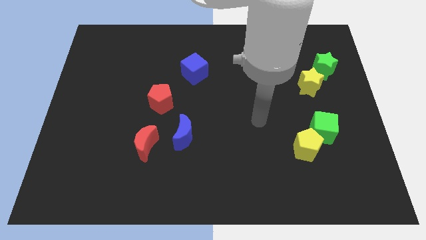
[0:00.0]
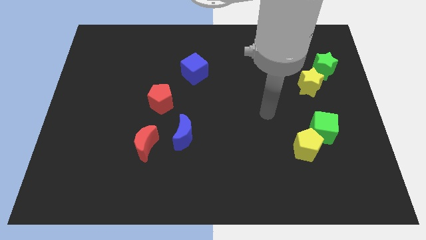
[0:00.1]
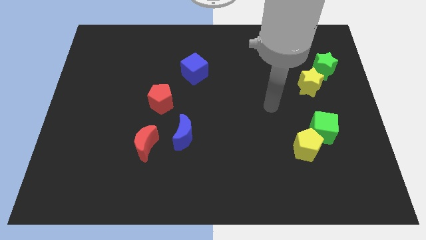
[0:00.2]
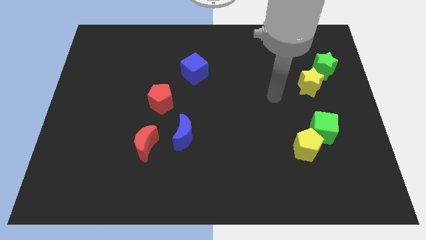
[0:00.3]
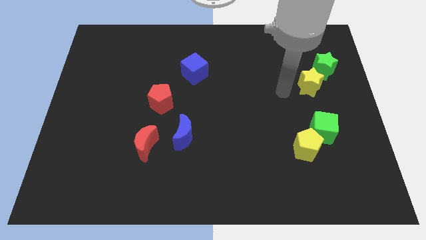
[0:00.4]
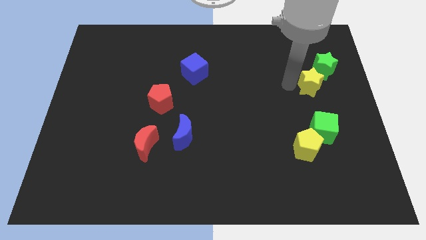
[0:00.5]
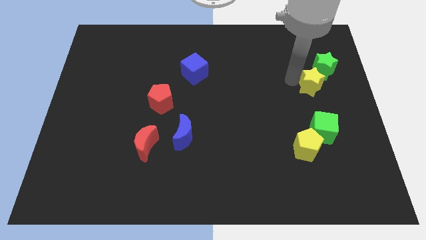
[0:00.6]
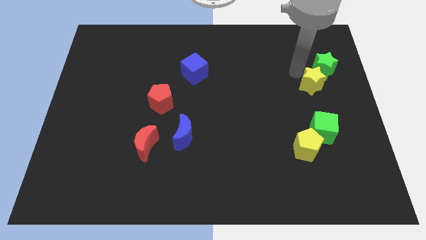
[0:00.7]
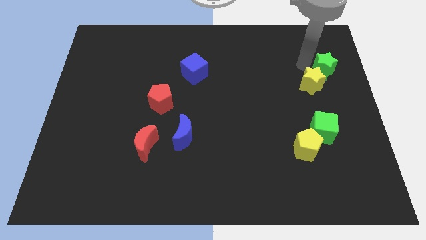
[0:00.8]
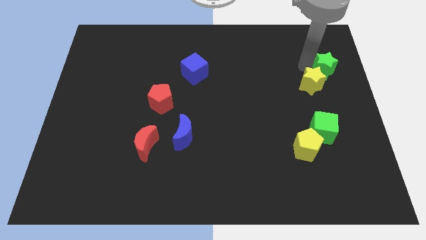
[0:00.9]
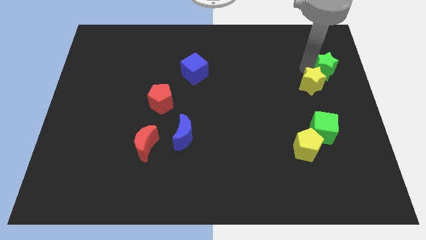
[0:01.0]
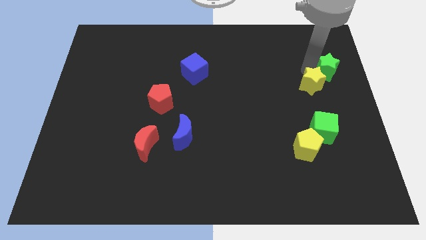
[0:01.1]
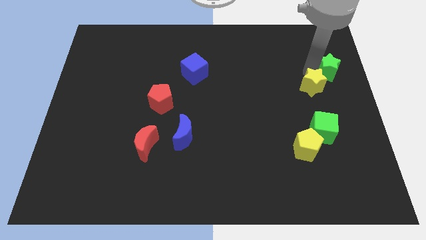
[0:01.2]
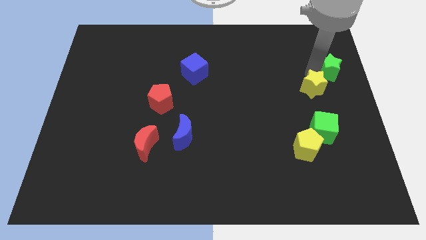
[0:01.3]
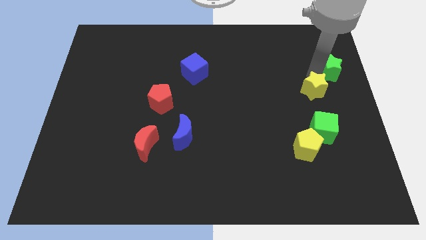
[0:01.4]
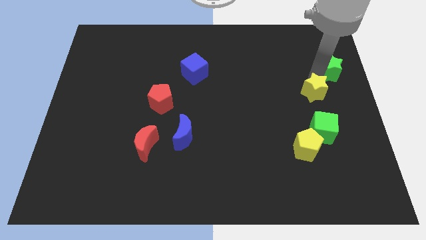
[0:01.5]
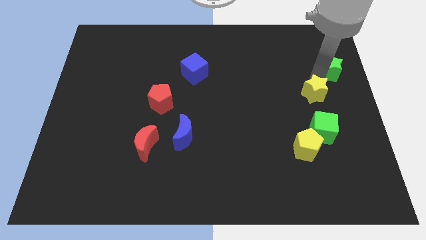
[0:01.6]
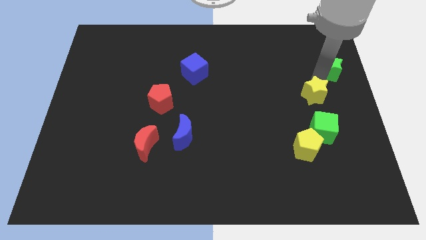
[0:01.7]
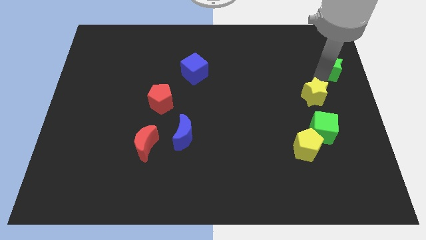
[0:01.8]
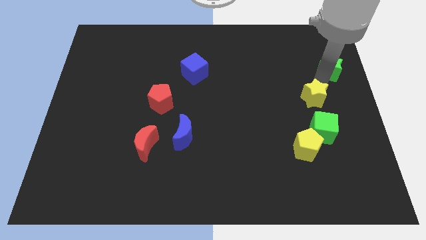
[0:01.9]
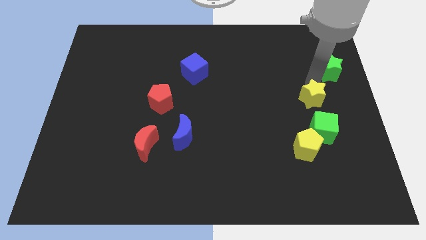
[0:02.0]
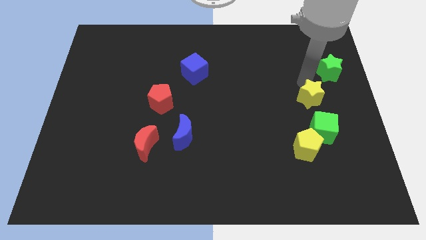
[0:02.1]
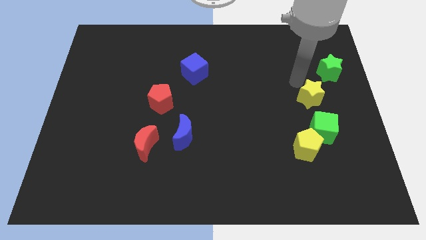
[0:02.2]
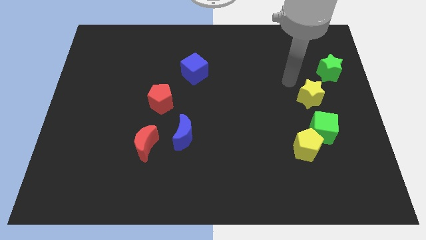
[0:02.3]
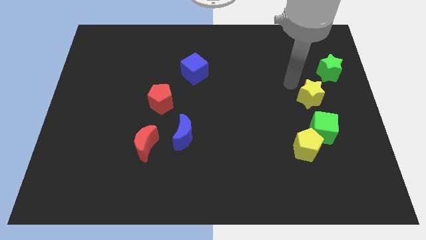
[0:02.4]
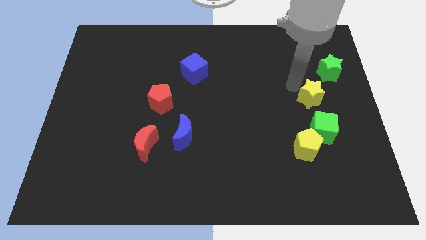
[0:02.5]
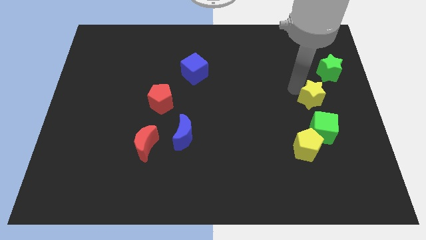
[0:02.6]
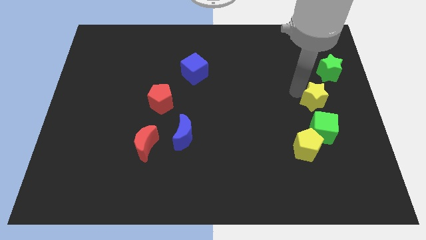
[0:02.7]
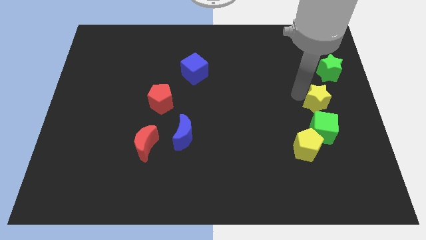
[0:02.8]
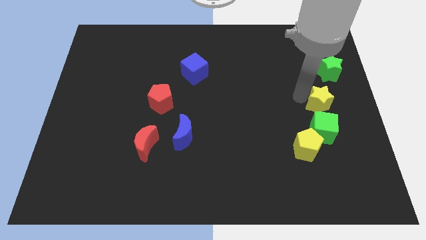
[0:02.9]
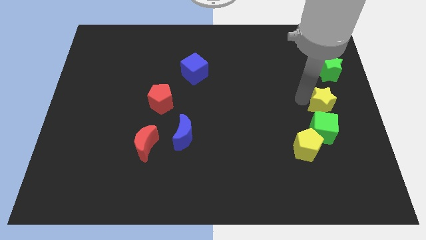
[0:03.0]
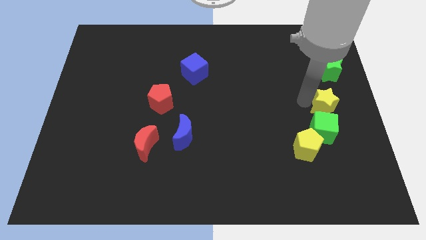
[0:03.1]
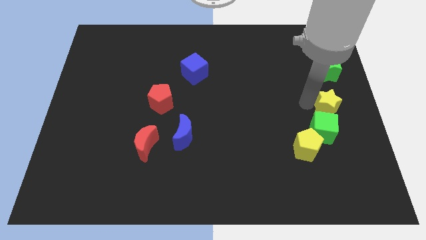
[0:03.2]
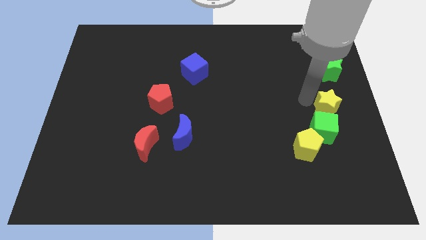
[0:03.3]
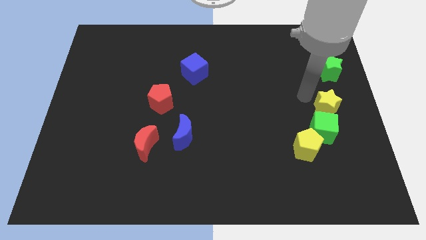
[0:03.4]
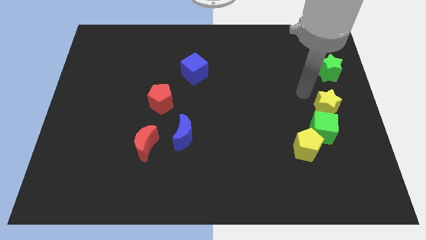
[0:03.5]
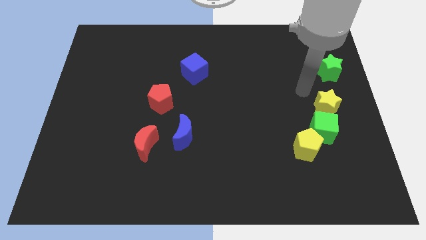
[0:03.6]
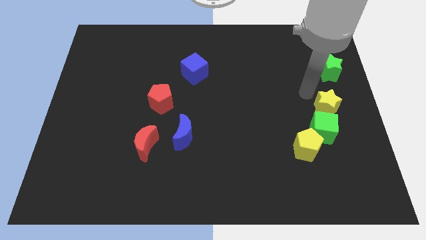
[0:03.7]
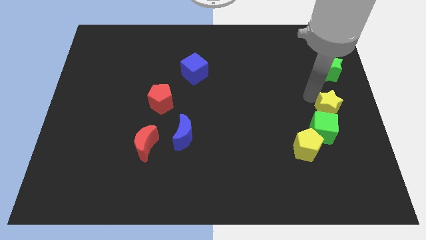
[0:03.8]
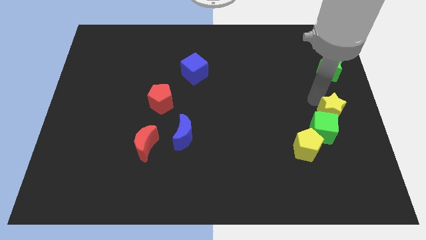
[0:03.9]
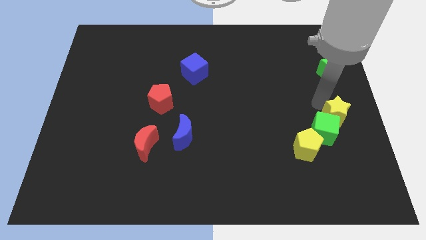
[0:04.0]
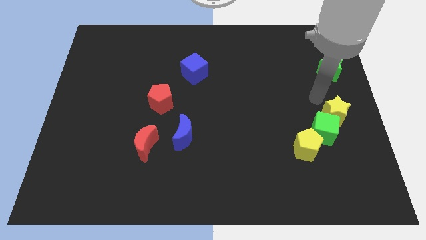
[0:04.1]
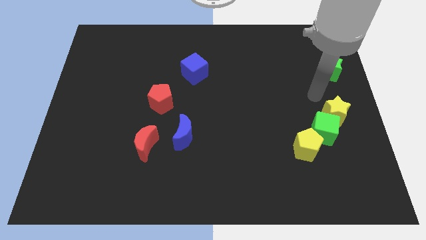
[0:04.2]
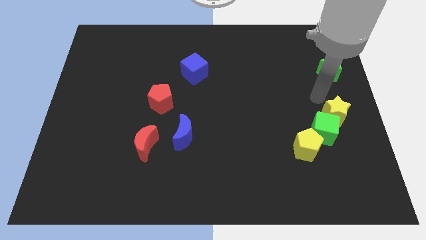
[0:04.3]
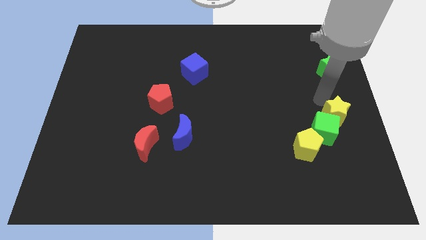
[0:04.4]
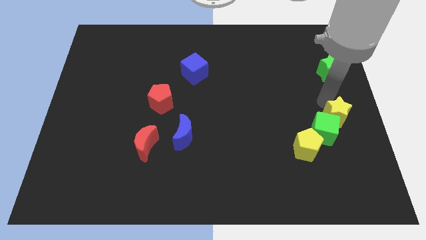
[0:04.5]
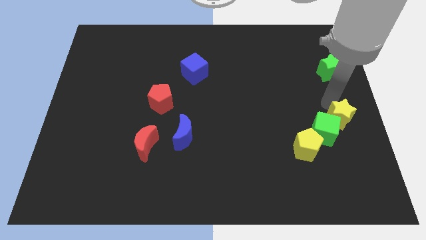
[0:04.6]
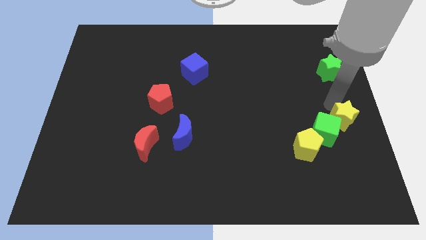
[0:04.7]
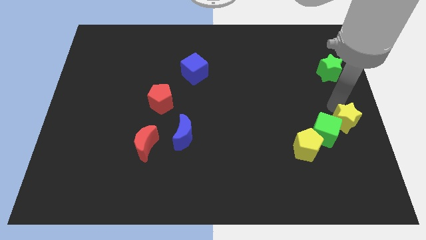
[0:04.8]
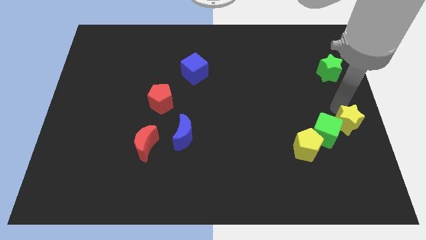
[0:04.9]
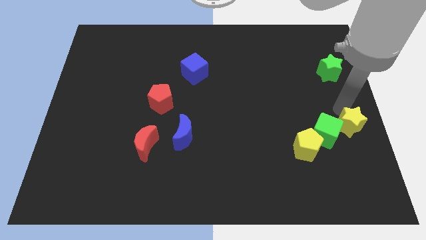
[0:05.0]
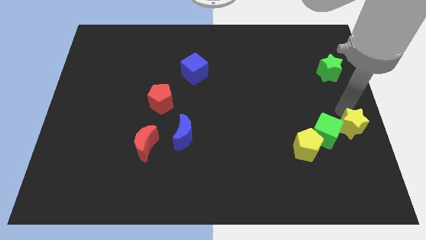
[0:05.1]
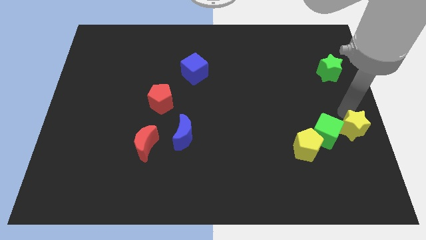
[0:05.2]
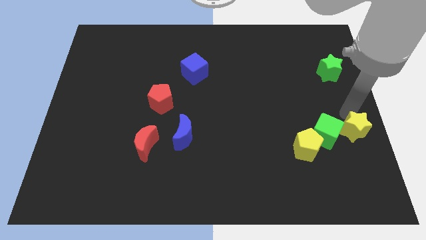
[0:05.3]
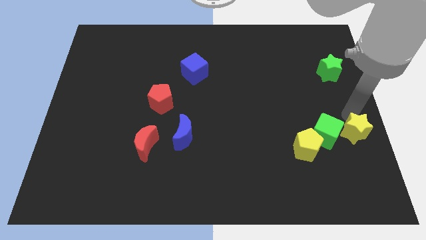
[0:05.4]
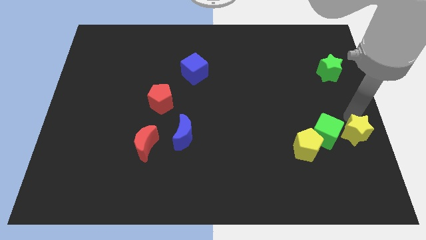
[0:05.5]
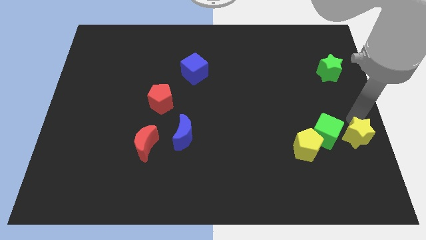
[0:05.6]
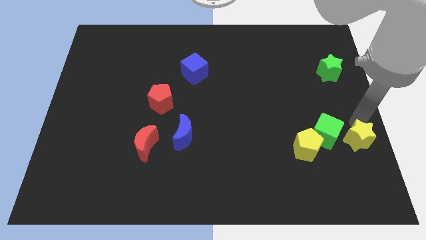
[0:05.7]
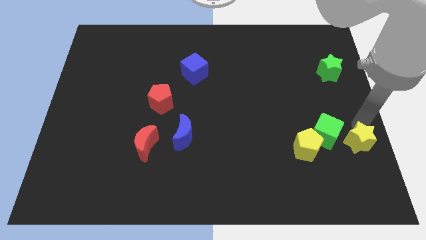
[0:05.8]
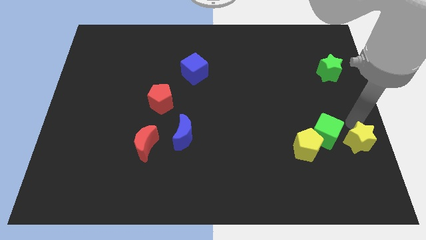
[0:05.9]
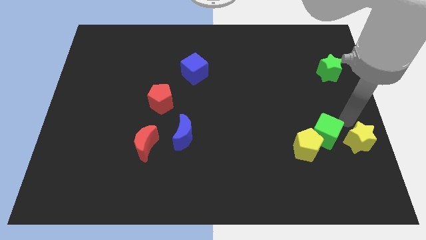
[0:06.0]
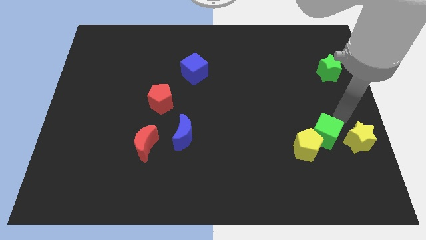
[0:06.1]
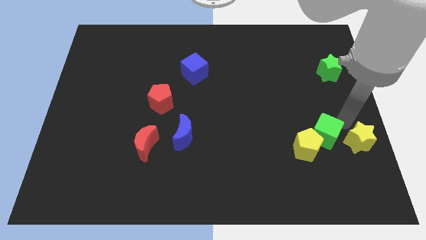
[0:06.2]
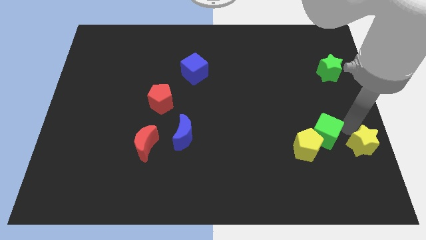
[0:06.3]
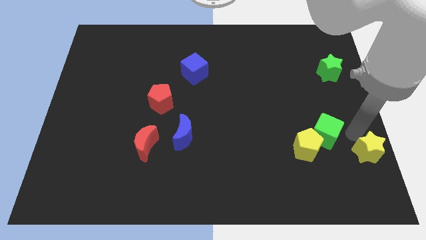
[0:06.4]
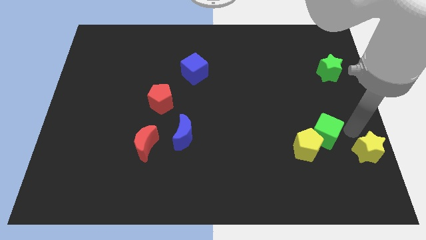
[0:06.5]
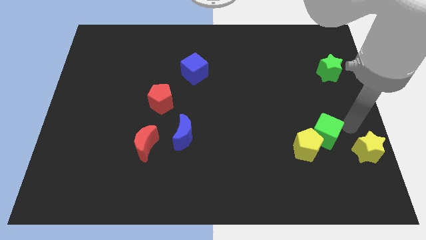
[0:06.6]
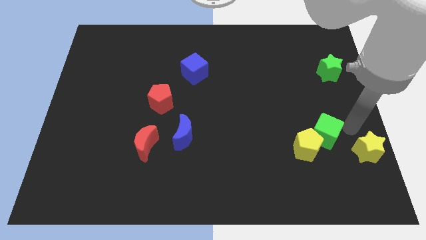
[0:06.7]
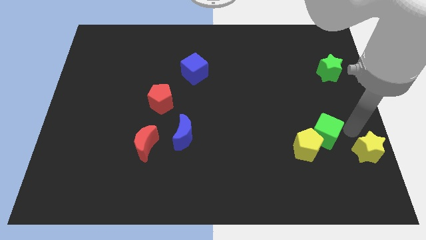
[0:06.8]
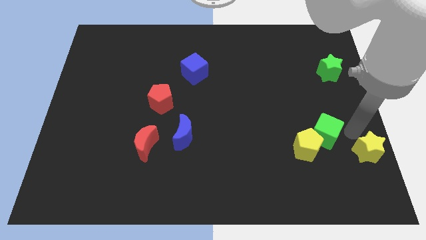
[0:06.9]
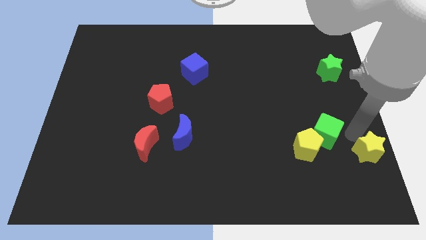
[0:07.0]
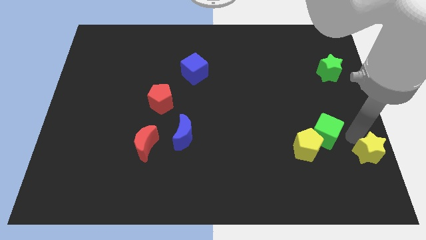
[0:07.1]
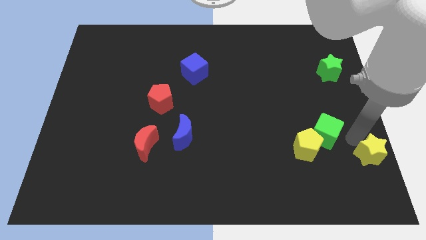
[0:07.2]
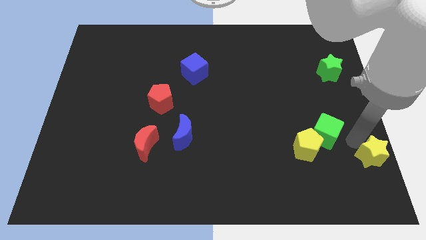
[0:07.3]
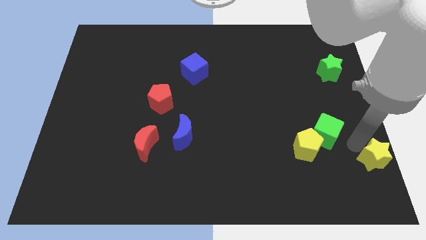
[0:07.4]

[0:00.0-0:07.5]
put the yellow star to the lower right corner
